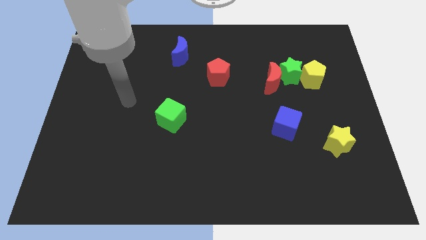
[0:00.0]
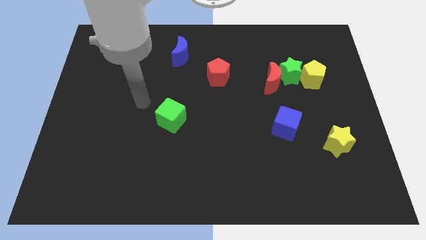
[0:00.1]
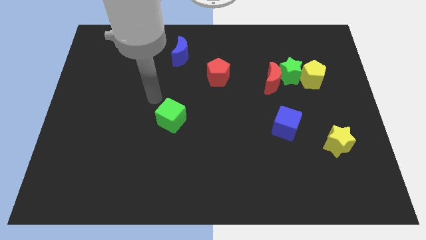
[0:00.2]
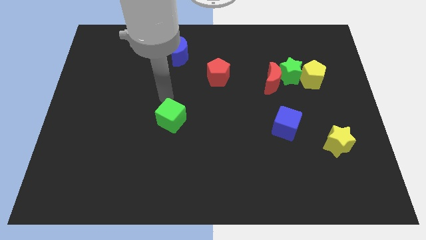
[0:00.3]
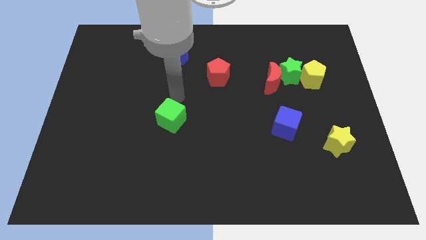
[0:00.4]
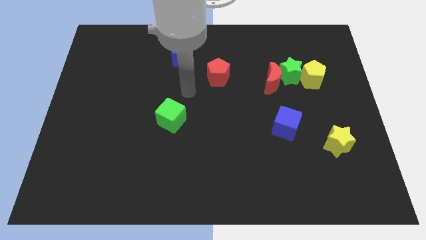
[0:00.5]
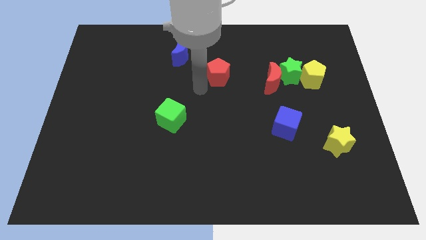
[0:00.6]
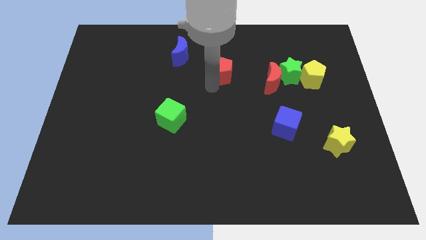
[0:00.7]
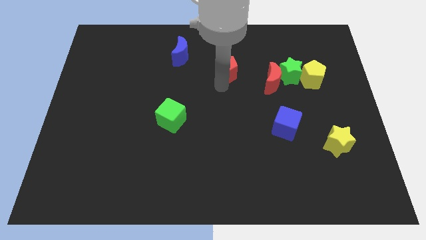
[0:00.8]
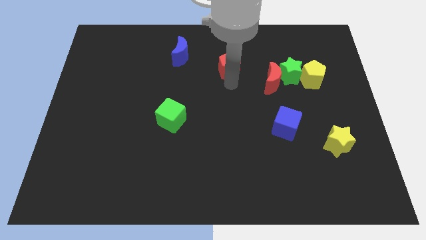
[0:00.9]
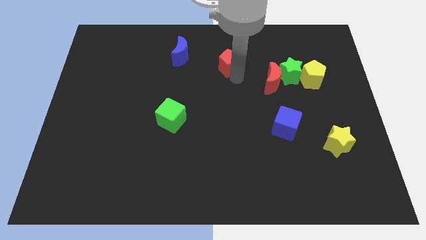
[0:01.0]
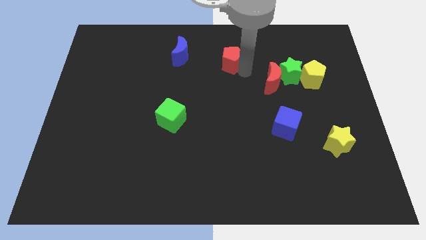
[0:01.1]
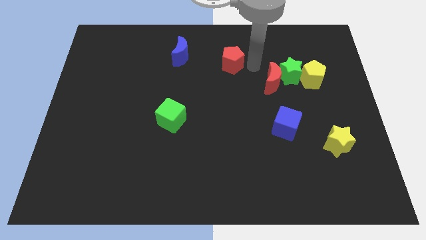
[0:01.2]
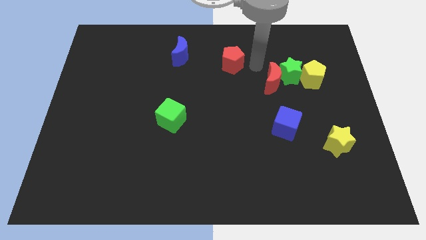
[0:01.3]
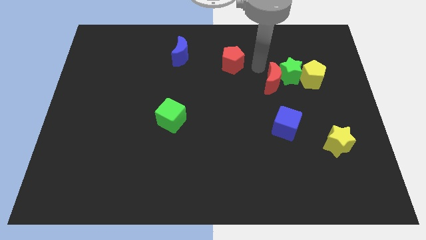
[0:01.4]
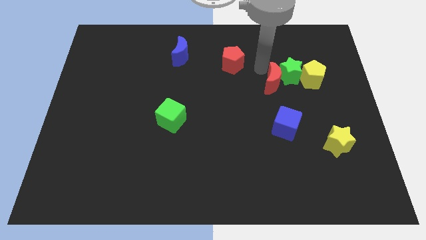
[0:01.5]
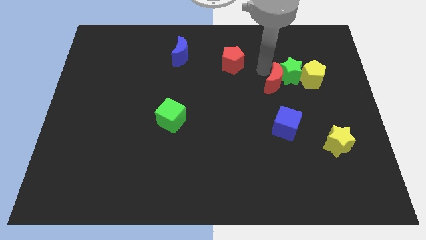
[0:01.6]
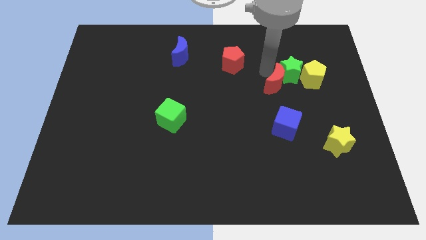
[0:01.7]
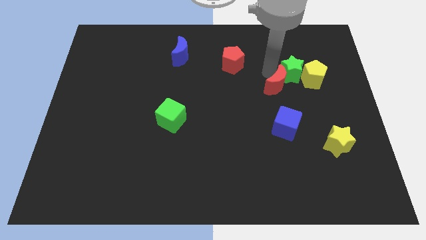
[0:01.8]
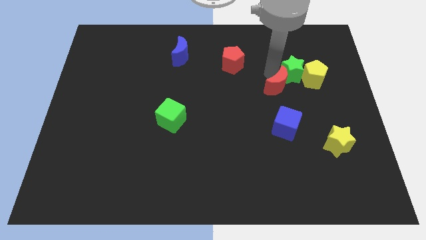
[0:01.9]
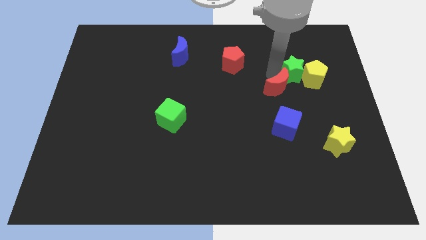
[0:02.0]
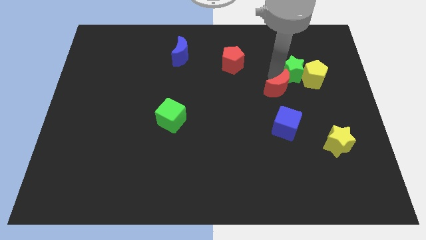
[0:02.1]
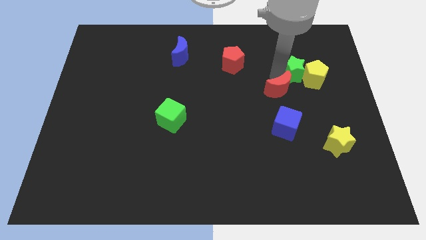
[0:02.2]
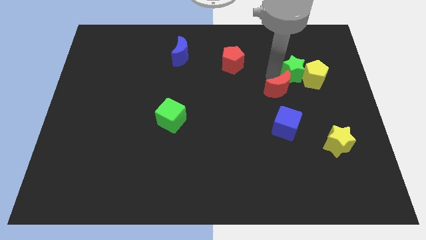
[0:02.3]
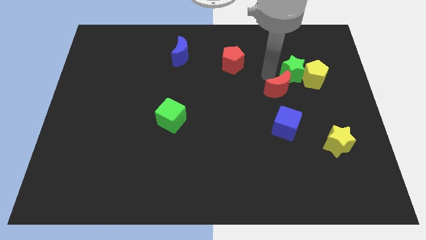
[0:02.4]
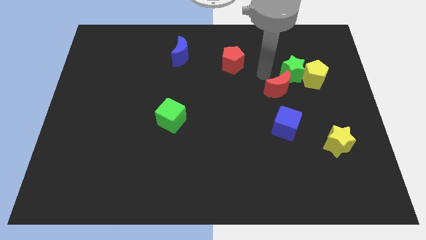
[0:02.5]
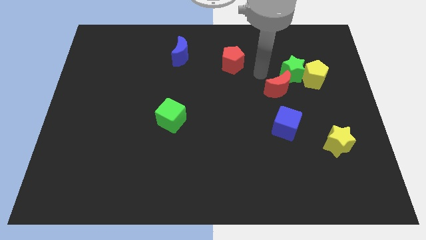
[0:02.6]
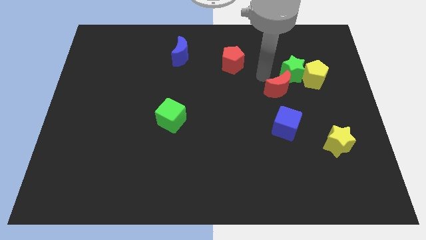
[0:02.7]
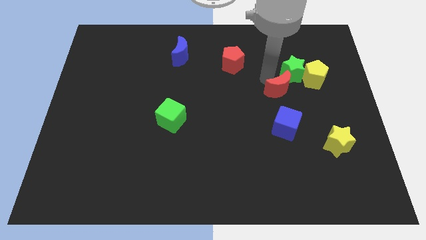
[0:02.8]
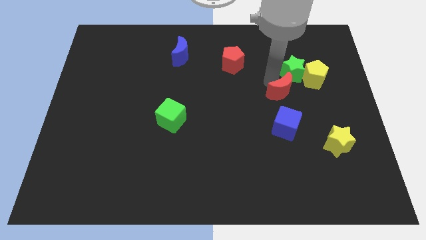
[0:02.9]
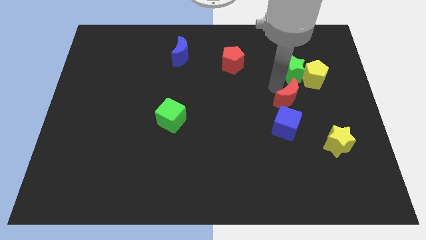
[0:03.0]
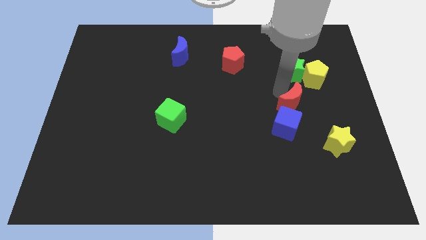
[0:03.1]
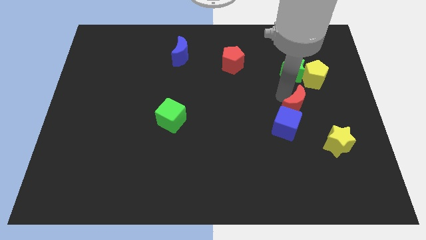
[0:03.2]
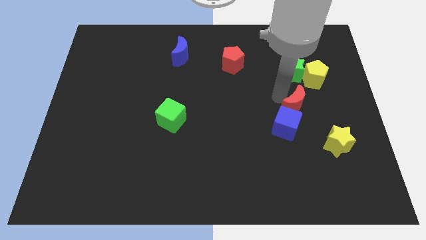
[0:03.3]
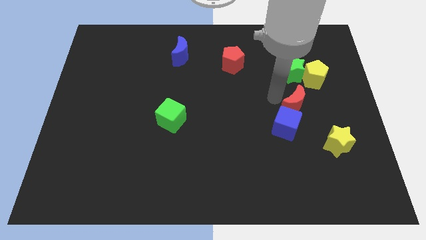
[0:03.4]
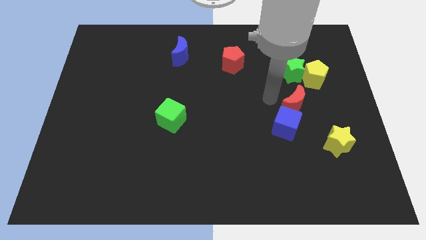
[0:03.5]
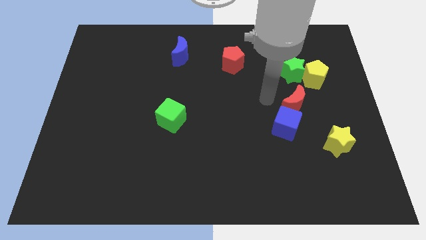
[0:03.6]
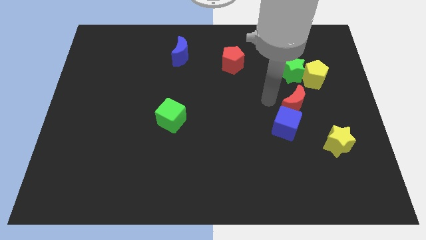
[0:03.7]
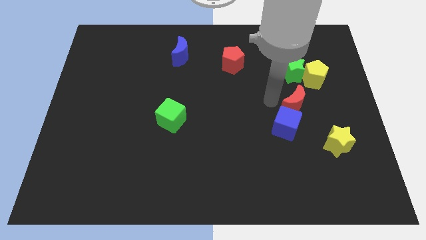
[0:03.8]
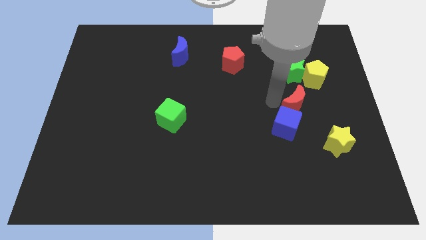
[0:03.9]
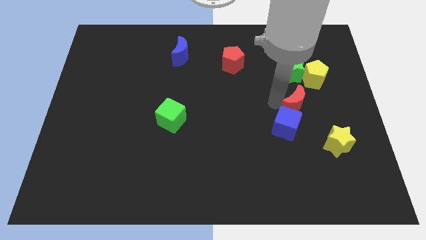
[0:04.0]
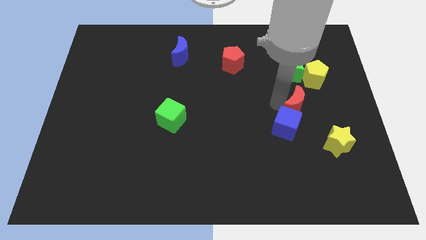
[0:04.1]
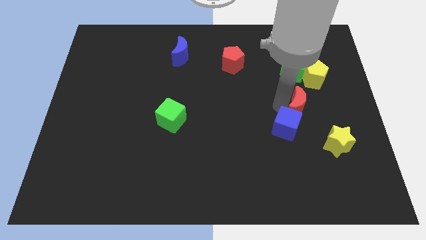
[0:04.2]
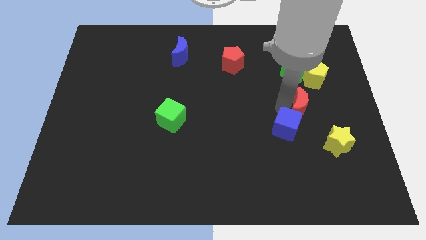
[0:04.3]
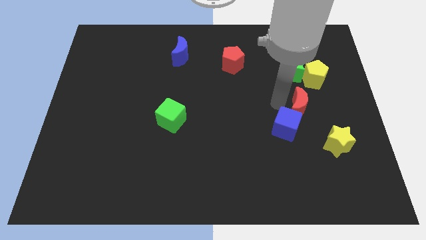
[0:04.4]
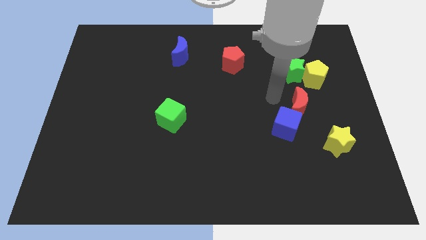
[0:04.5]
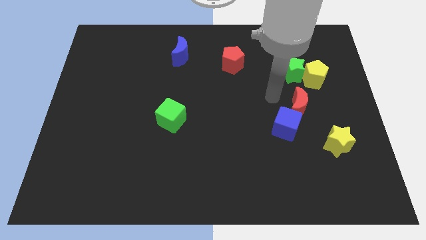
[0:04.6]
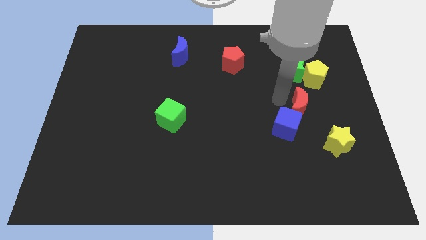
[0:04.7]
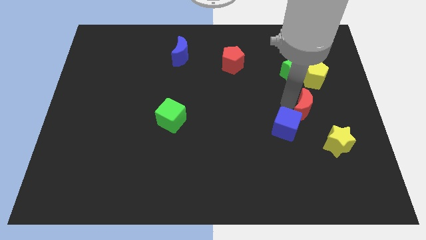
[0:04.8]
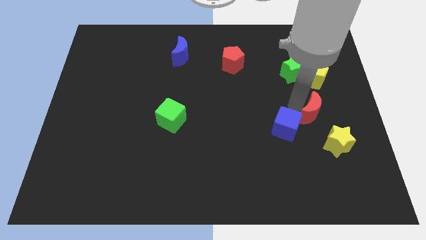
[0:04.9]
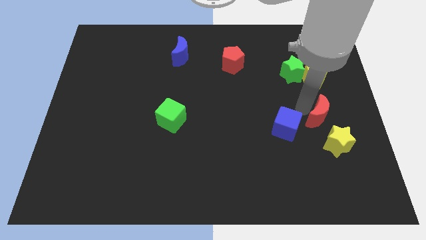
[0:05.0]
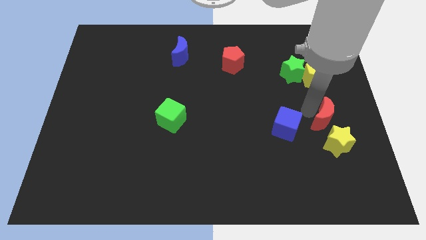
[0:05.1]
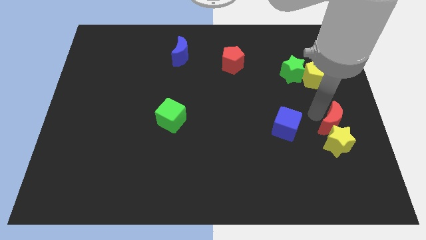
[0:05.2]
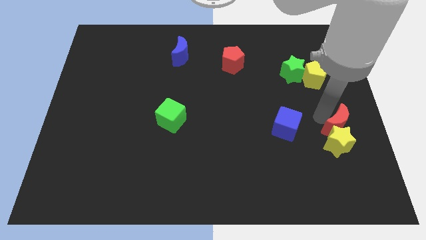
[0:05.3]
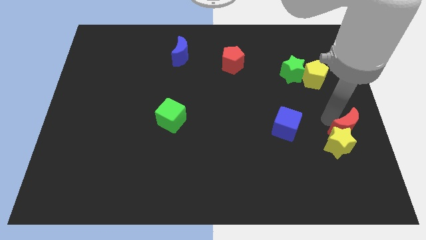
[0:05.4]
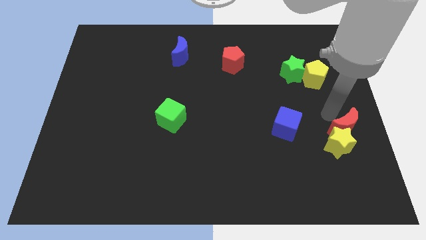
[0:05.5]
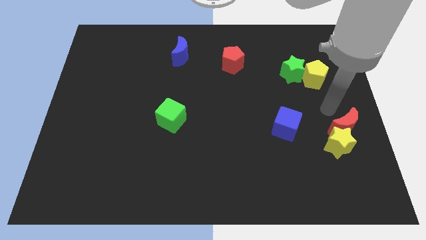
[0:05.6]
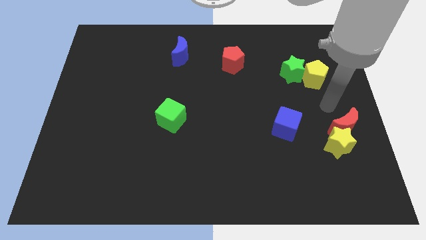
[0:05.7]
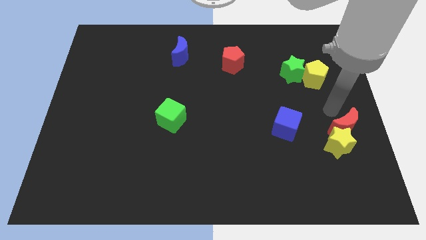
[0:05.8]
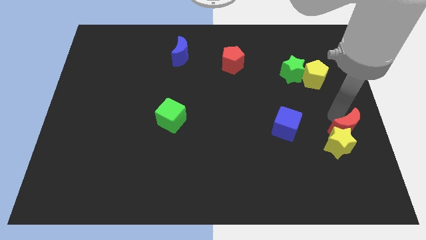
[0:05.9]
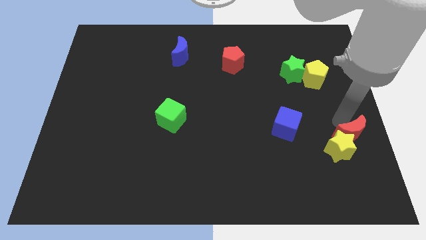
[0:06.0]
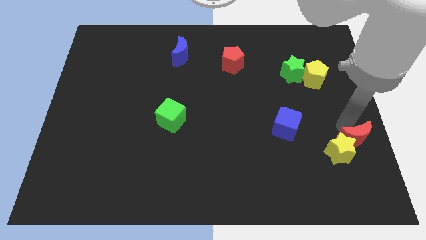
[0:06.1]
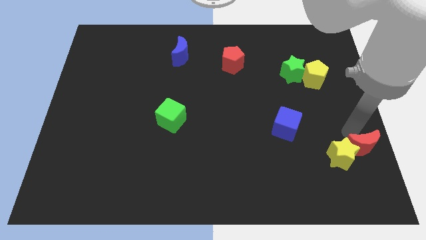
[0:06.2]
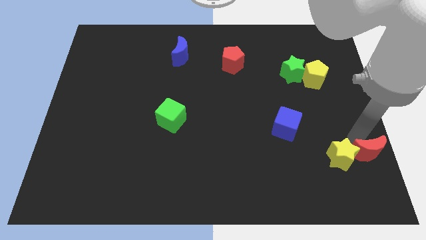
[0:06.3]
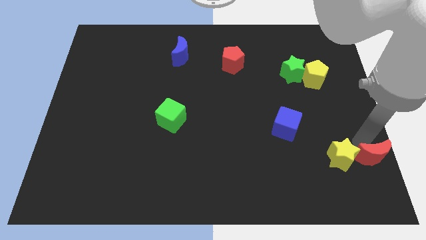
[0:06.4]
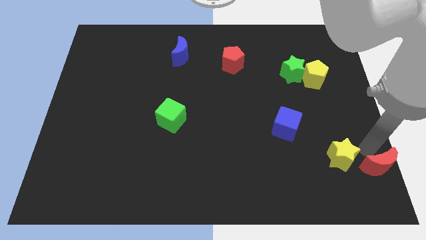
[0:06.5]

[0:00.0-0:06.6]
put the red moon to the lower right corner
